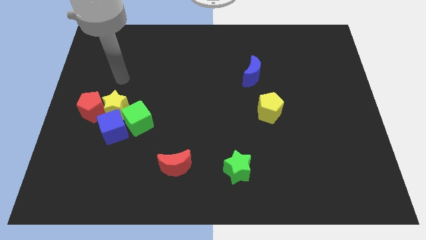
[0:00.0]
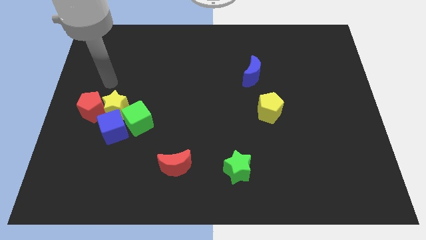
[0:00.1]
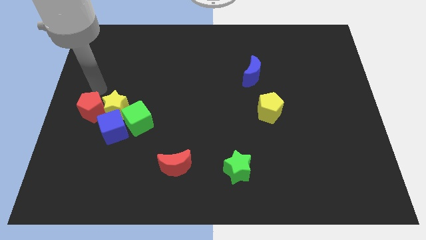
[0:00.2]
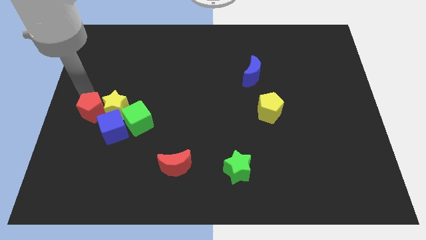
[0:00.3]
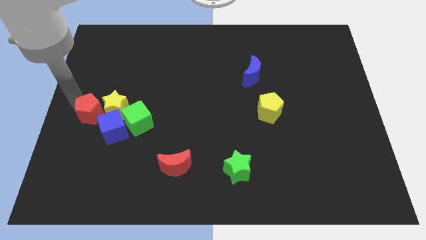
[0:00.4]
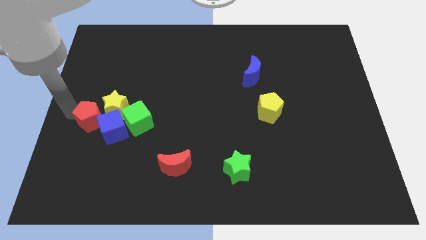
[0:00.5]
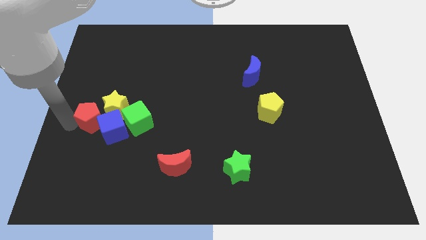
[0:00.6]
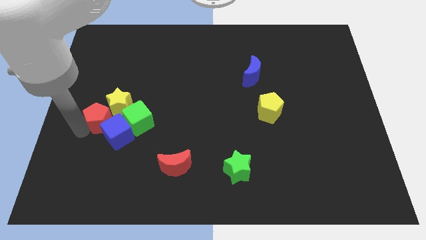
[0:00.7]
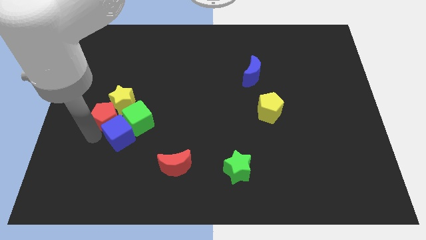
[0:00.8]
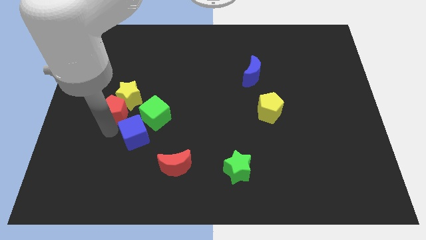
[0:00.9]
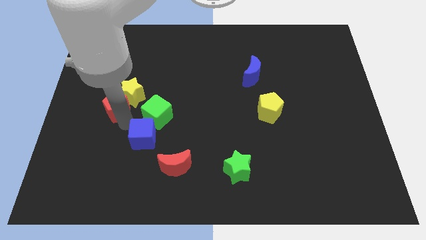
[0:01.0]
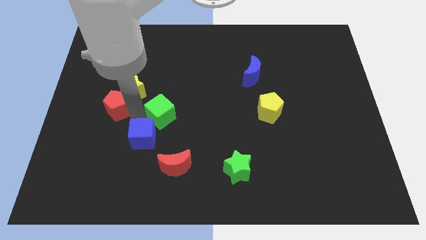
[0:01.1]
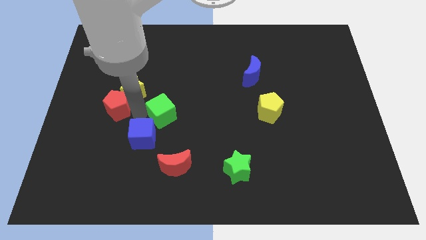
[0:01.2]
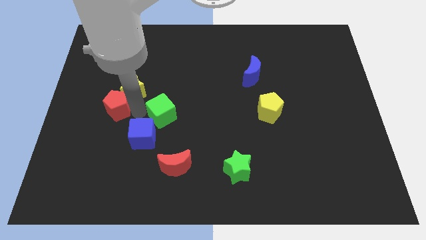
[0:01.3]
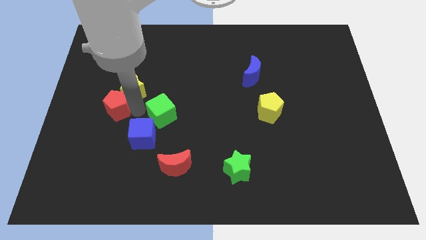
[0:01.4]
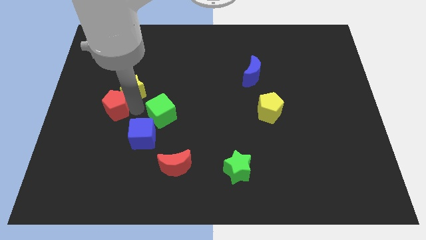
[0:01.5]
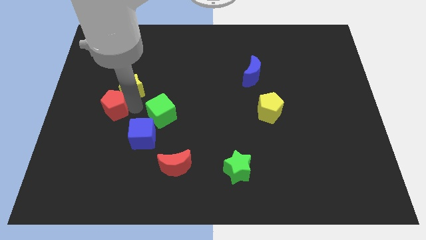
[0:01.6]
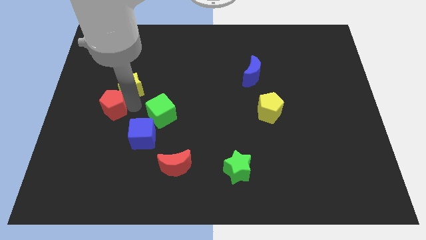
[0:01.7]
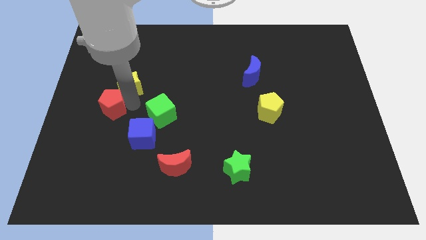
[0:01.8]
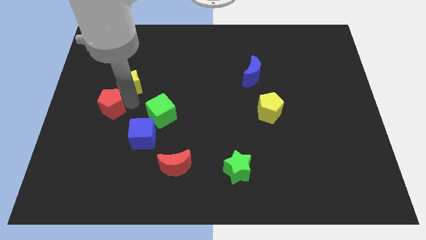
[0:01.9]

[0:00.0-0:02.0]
move the yellow star away from the red pentagon, blue cube, and green cube

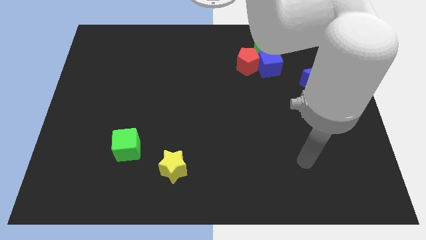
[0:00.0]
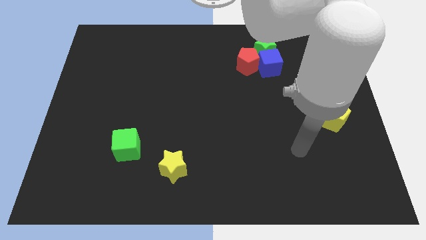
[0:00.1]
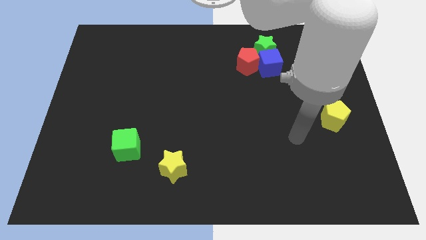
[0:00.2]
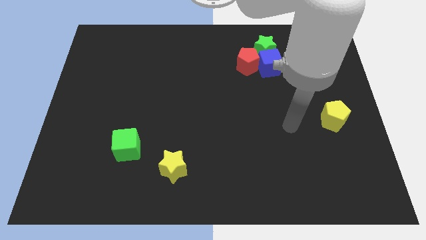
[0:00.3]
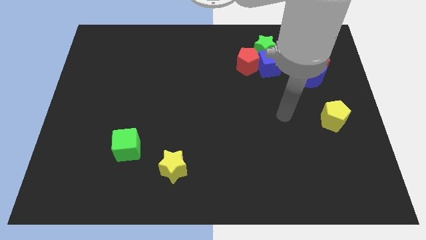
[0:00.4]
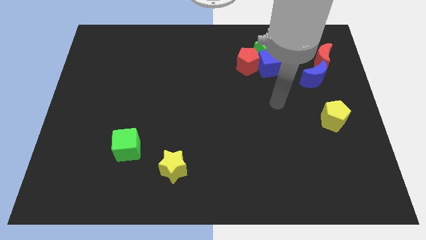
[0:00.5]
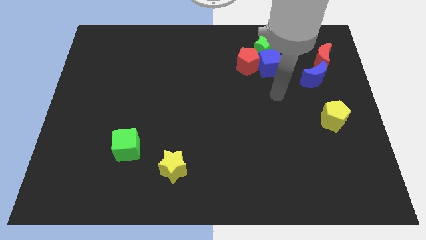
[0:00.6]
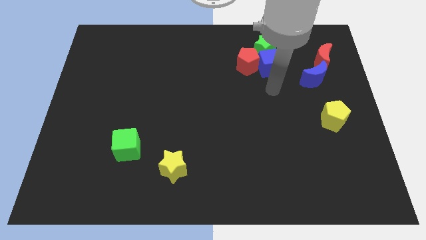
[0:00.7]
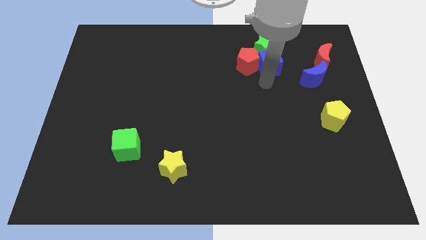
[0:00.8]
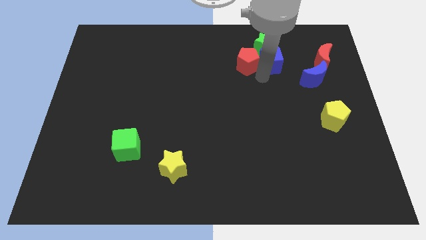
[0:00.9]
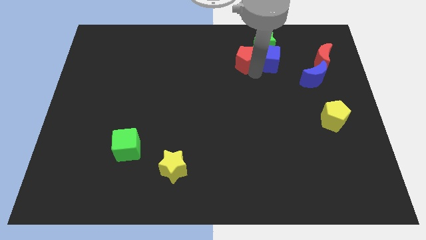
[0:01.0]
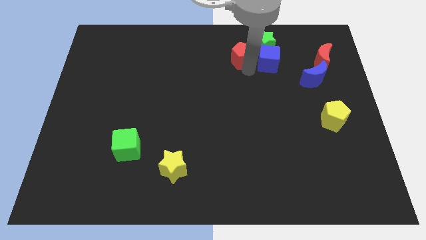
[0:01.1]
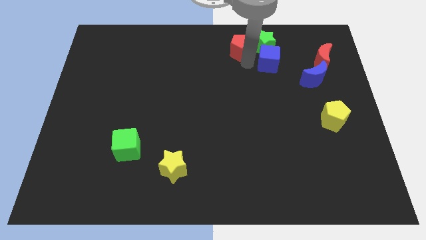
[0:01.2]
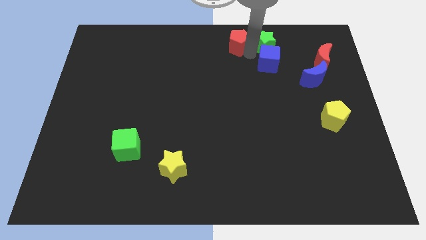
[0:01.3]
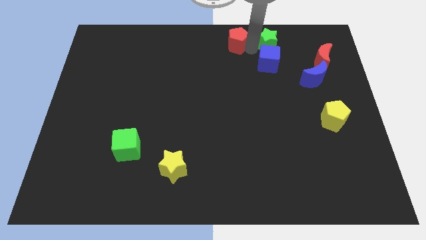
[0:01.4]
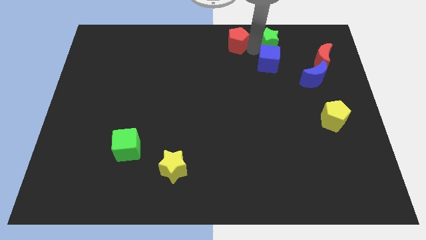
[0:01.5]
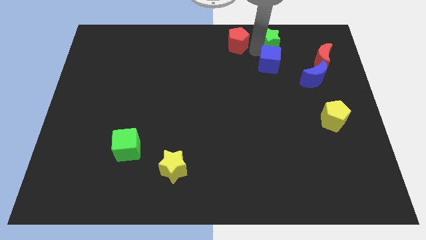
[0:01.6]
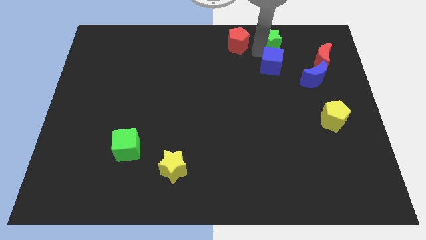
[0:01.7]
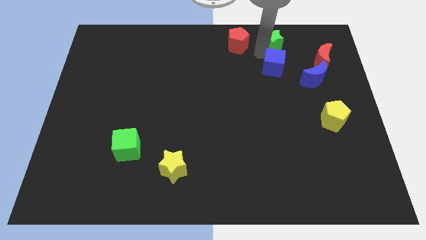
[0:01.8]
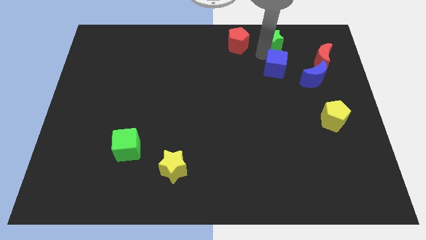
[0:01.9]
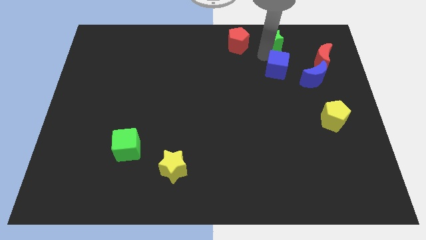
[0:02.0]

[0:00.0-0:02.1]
move the blue cube away from the green star and red pentagon

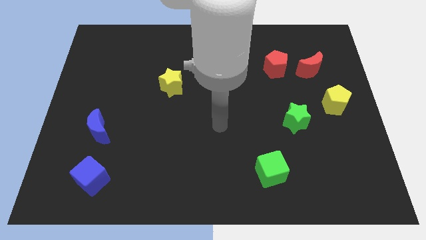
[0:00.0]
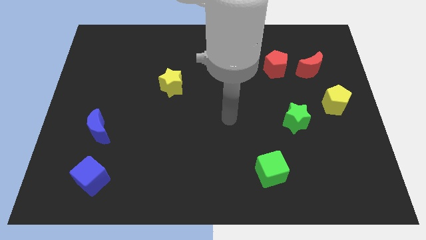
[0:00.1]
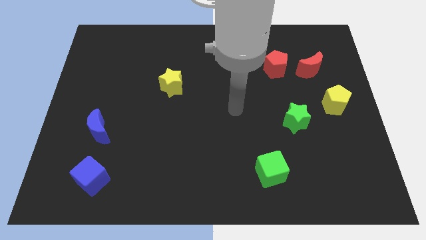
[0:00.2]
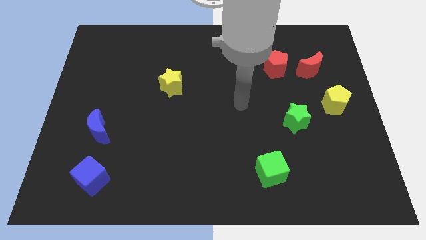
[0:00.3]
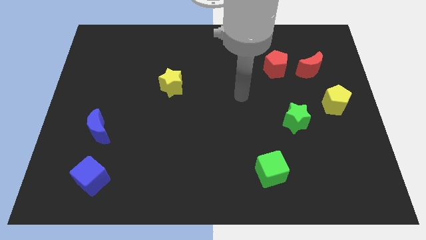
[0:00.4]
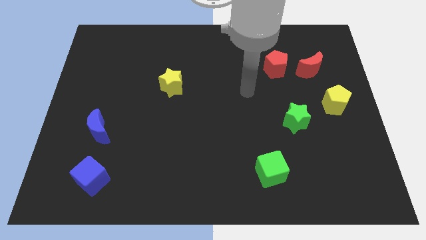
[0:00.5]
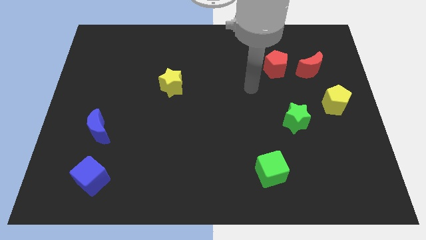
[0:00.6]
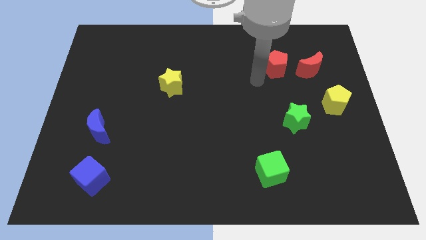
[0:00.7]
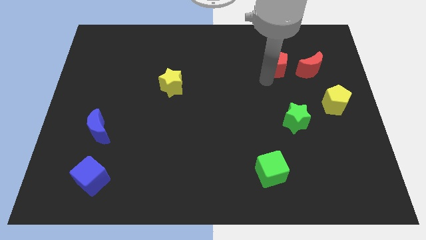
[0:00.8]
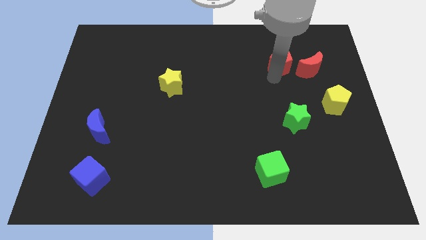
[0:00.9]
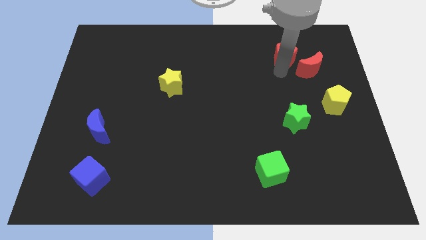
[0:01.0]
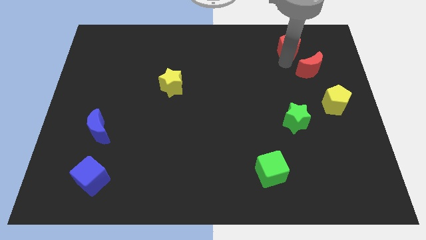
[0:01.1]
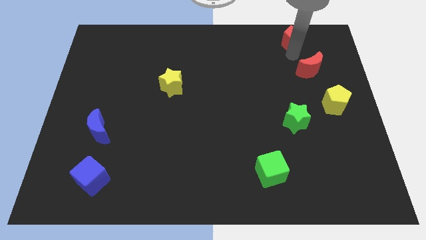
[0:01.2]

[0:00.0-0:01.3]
move the red moon away from the red pentagon

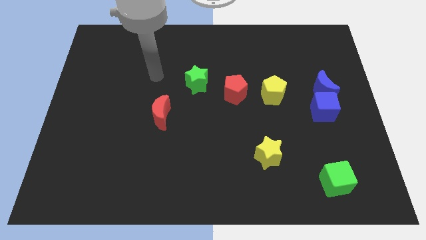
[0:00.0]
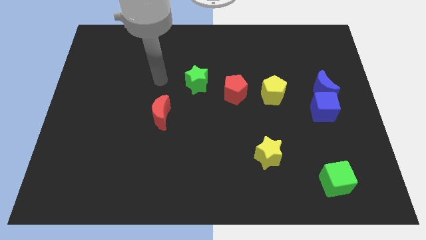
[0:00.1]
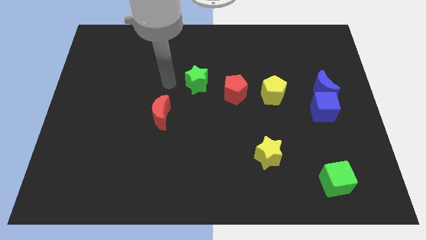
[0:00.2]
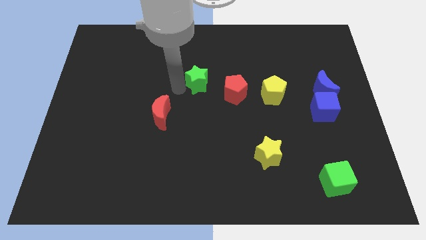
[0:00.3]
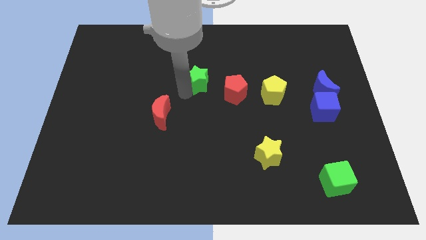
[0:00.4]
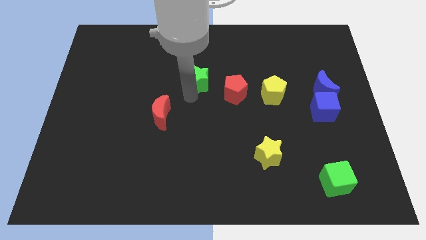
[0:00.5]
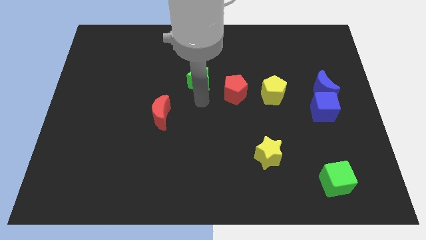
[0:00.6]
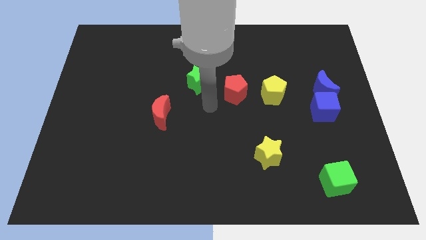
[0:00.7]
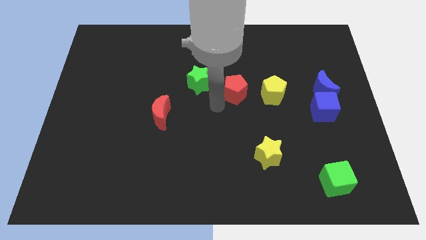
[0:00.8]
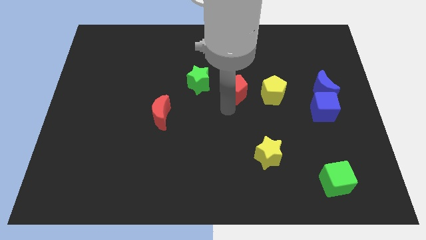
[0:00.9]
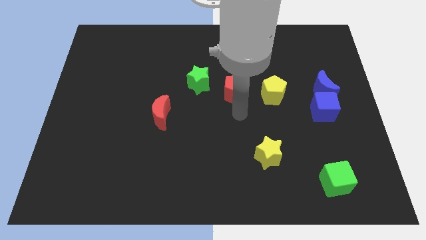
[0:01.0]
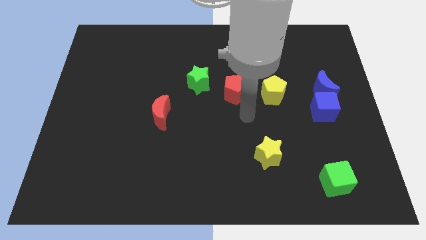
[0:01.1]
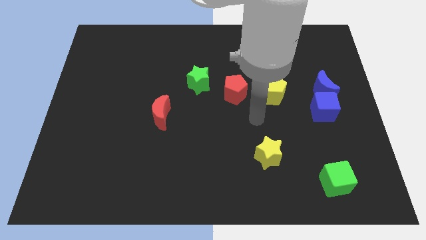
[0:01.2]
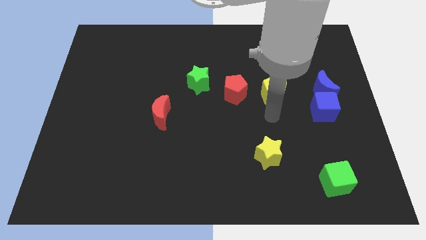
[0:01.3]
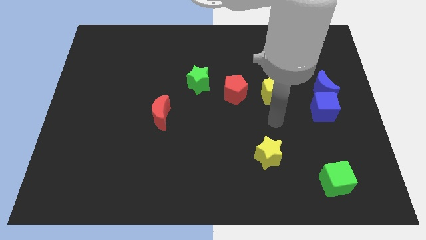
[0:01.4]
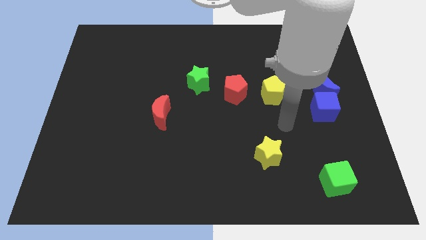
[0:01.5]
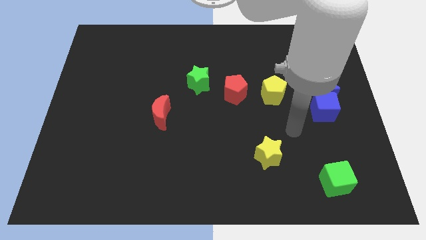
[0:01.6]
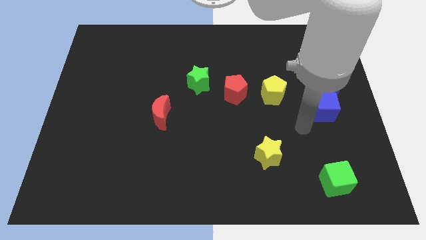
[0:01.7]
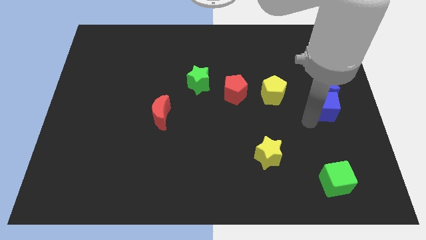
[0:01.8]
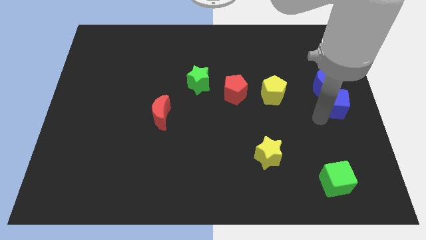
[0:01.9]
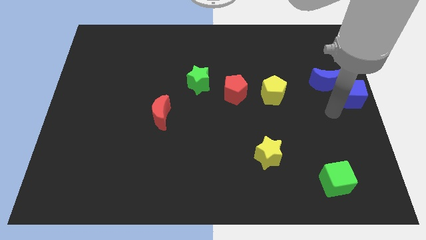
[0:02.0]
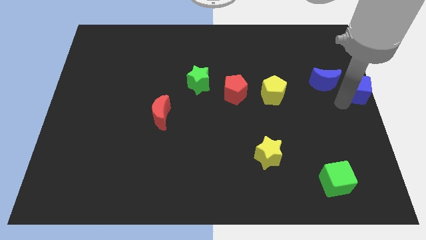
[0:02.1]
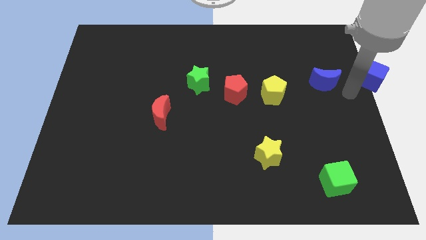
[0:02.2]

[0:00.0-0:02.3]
move the blue moon away from the blue cube

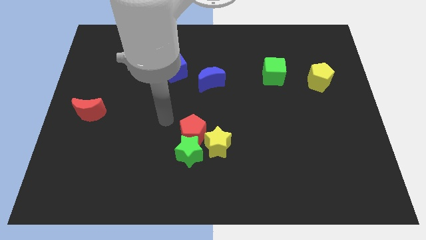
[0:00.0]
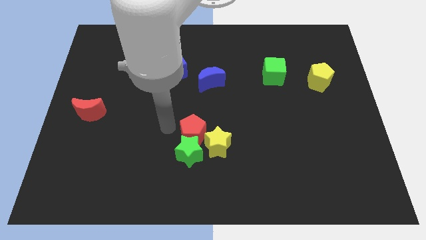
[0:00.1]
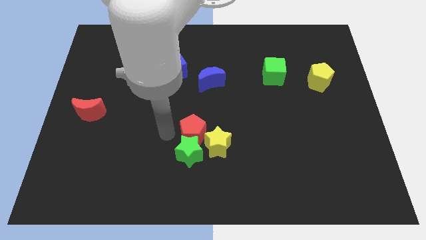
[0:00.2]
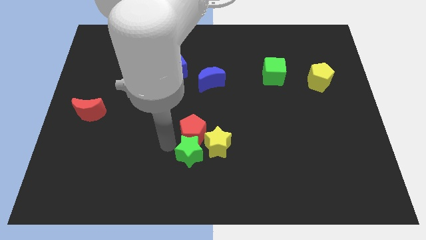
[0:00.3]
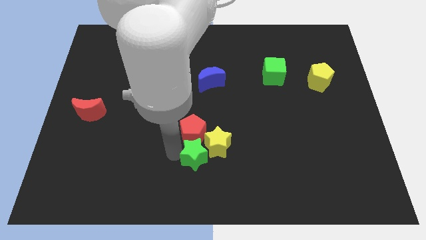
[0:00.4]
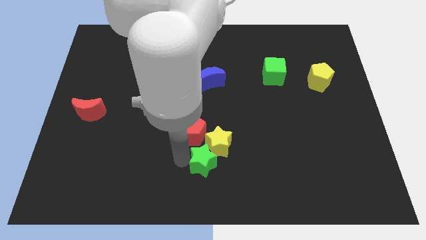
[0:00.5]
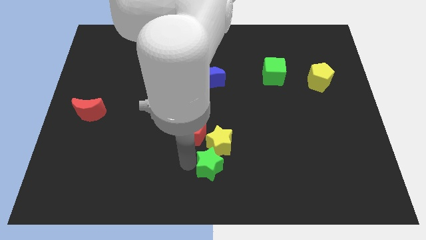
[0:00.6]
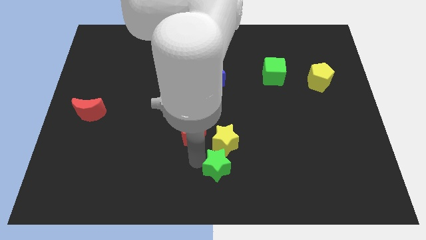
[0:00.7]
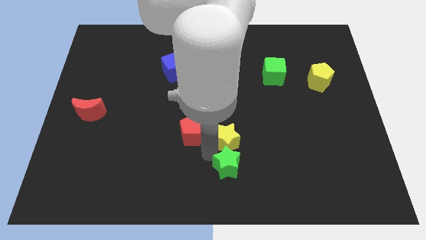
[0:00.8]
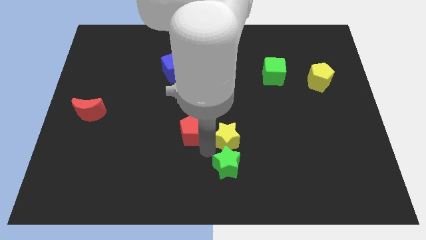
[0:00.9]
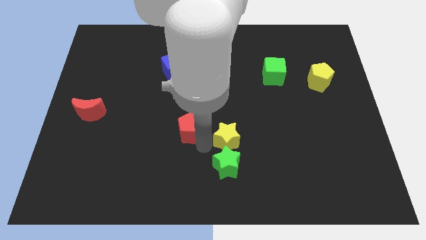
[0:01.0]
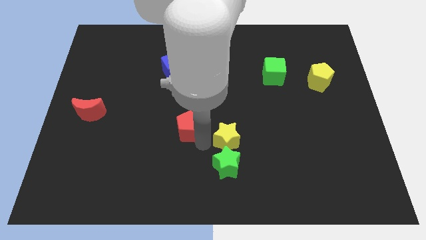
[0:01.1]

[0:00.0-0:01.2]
move the red pentagon away from the green star and yellow star

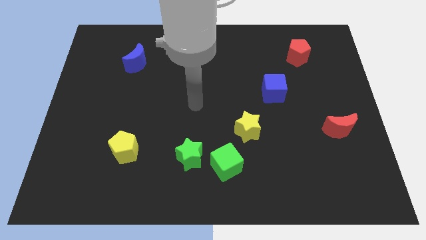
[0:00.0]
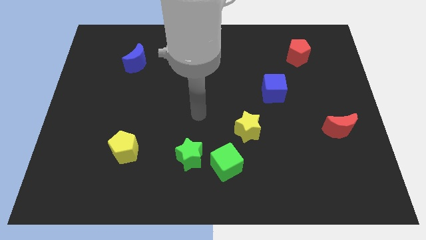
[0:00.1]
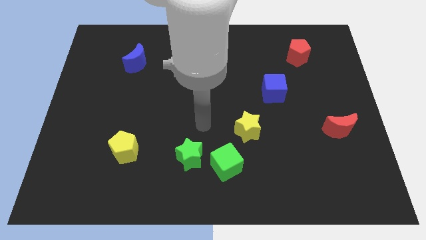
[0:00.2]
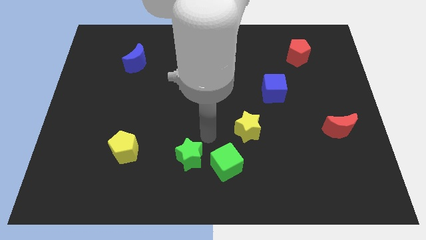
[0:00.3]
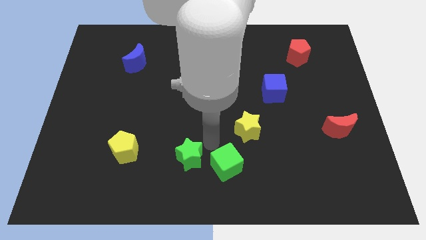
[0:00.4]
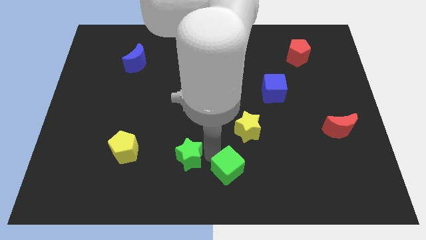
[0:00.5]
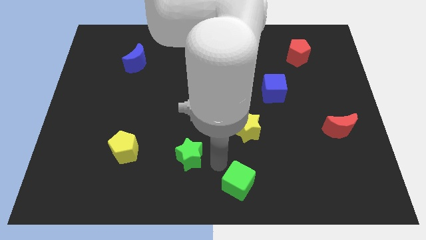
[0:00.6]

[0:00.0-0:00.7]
pull the green star apart from the green cube
